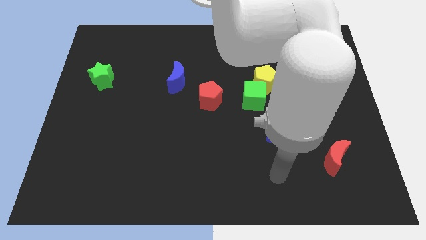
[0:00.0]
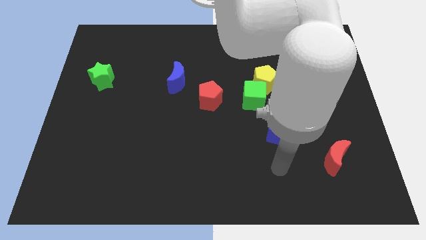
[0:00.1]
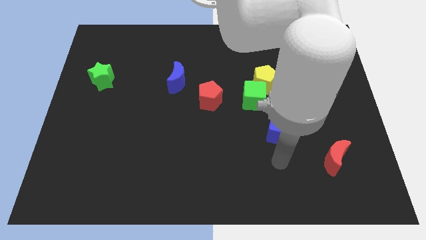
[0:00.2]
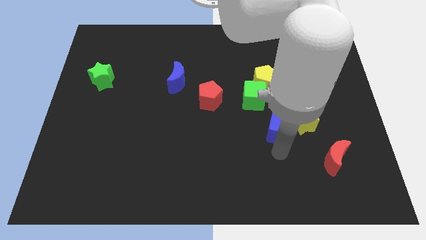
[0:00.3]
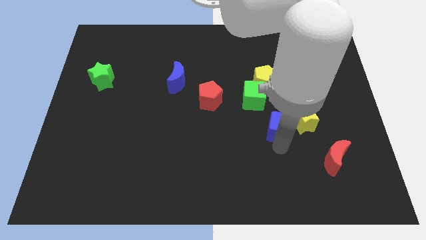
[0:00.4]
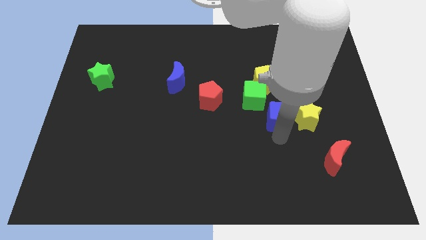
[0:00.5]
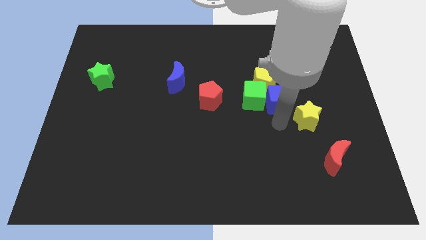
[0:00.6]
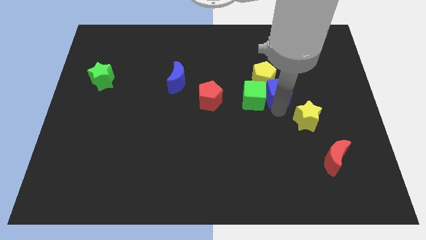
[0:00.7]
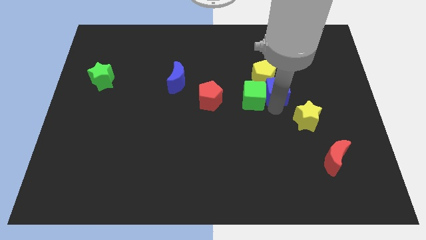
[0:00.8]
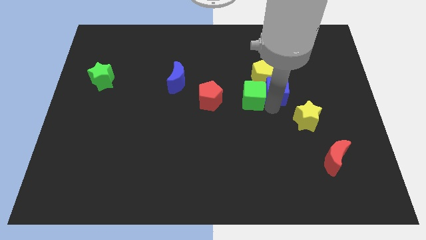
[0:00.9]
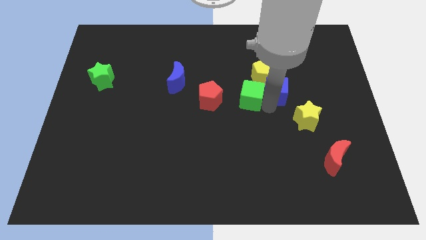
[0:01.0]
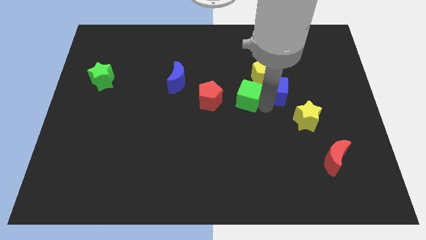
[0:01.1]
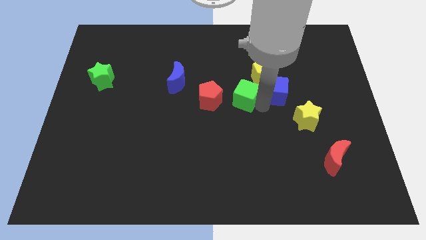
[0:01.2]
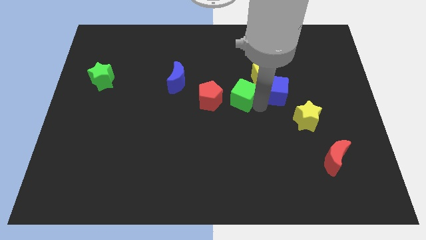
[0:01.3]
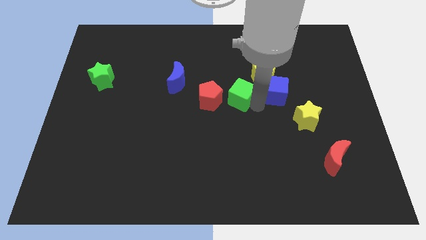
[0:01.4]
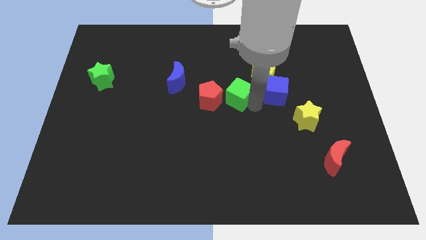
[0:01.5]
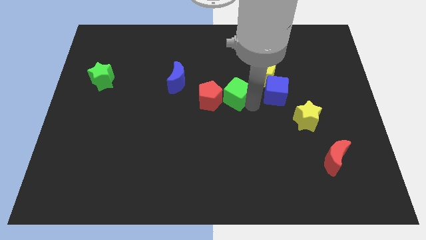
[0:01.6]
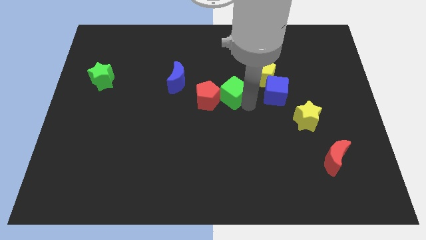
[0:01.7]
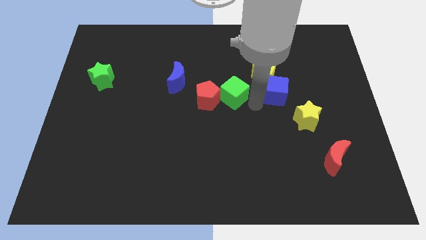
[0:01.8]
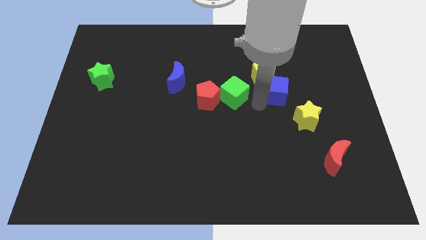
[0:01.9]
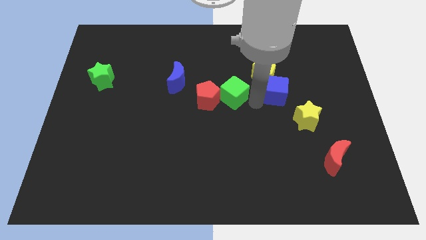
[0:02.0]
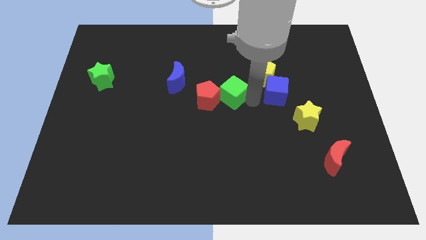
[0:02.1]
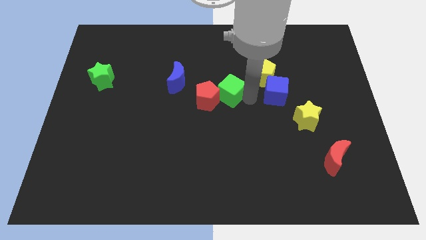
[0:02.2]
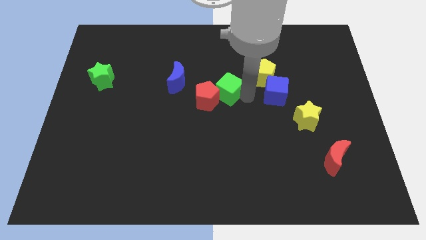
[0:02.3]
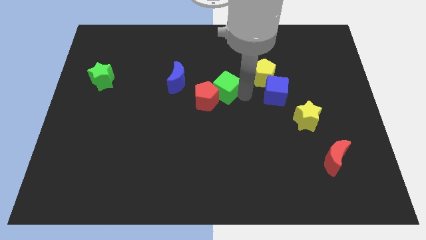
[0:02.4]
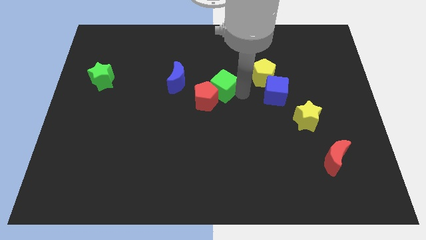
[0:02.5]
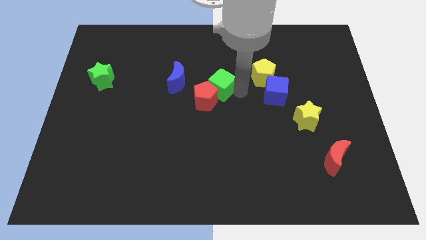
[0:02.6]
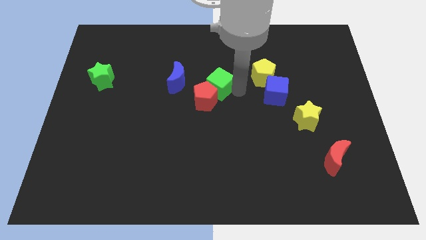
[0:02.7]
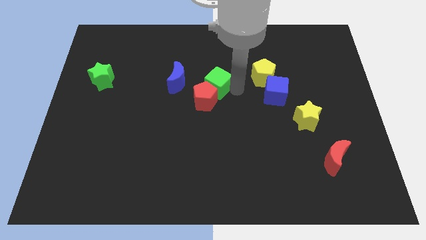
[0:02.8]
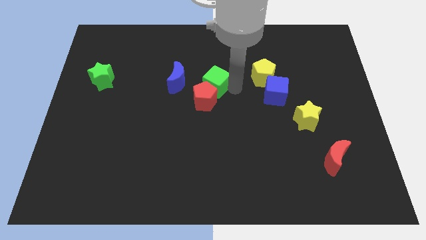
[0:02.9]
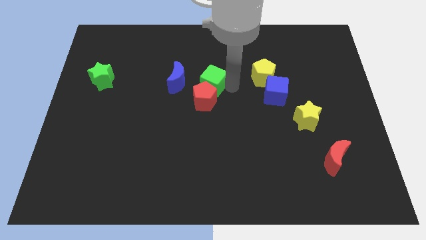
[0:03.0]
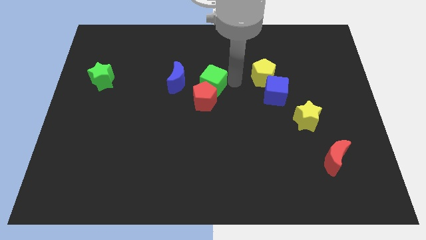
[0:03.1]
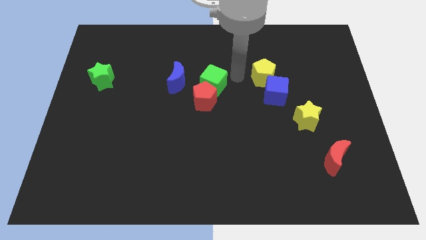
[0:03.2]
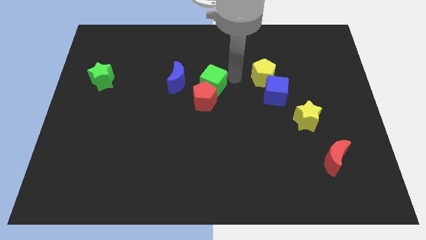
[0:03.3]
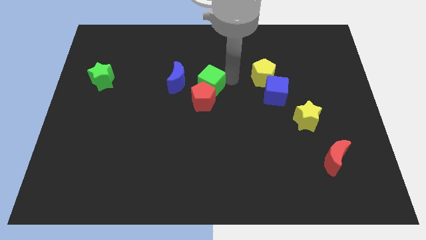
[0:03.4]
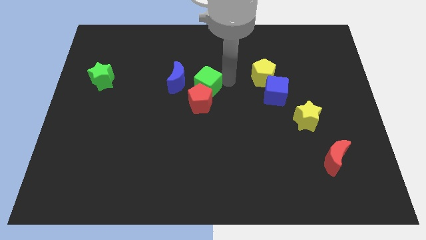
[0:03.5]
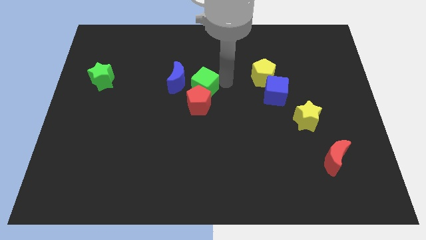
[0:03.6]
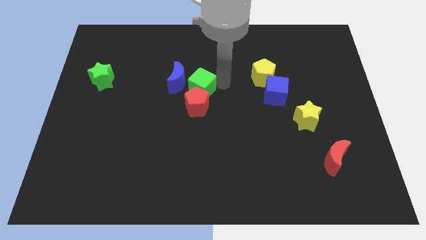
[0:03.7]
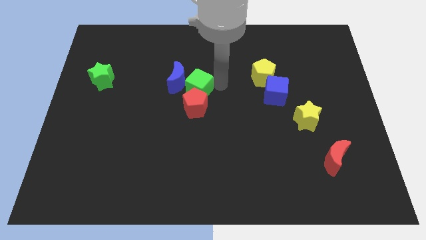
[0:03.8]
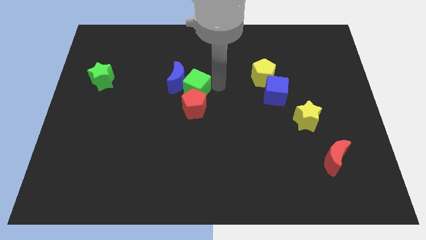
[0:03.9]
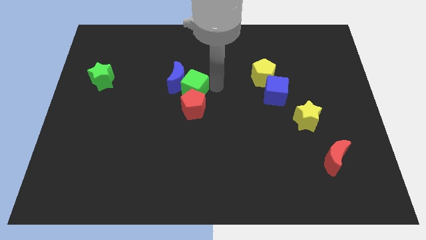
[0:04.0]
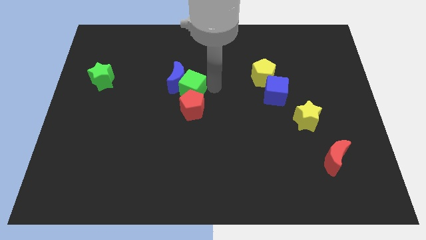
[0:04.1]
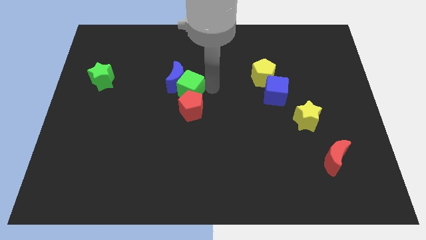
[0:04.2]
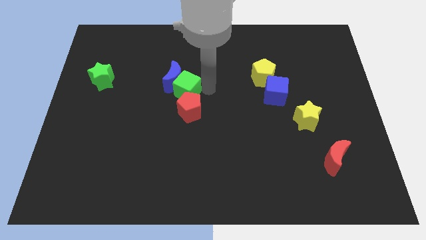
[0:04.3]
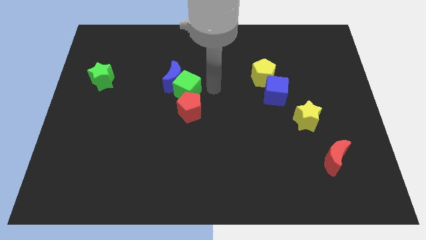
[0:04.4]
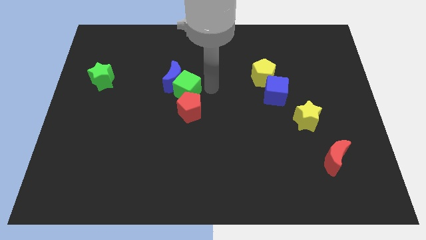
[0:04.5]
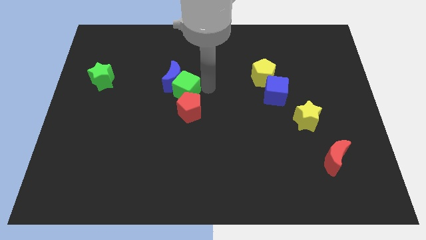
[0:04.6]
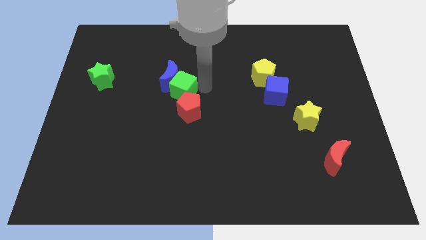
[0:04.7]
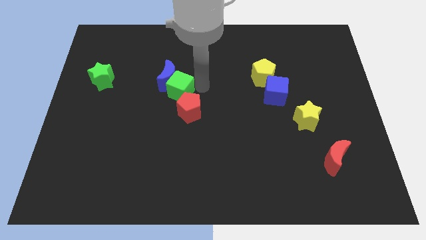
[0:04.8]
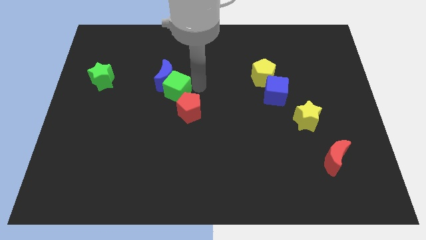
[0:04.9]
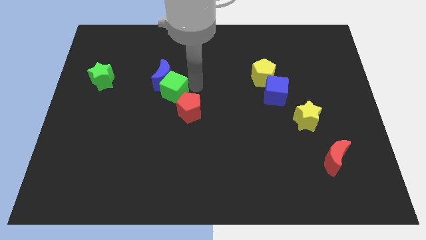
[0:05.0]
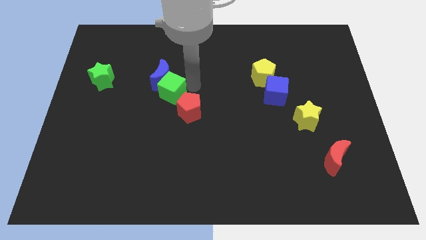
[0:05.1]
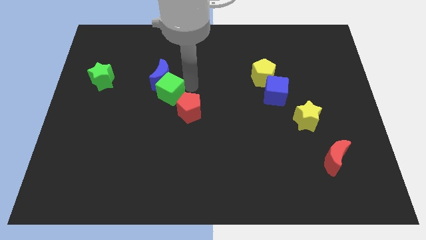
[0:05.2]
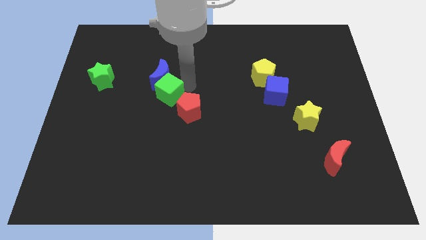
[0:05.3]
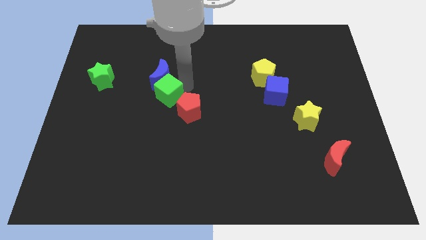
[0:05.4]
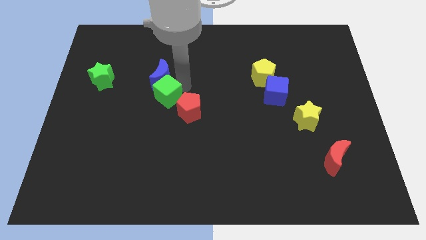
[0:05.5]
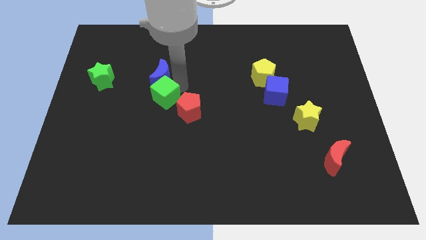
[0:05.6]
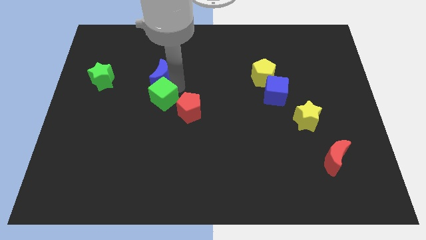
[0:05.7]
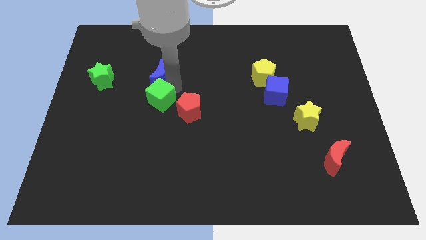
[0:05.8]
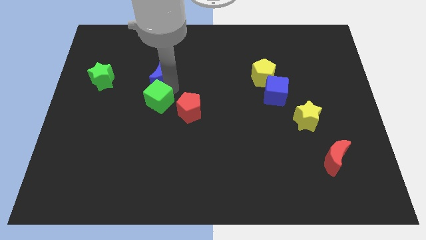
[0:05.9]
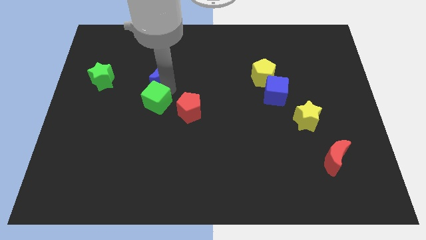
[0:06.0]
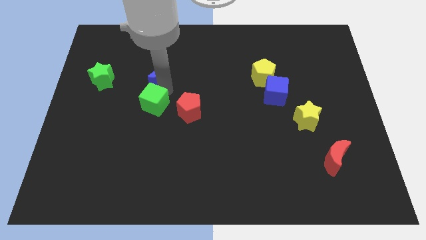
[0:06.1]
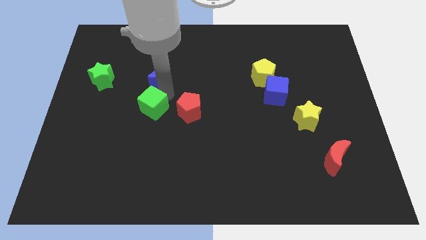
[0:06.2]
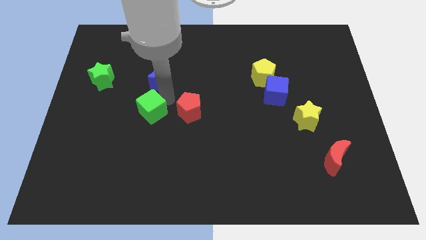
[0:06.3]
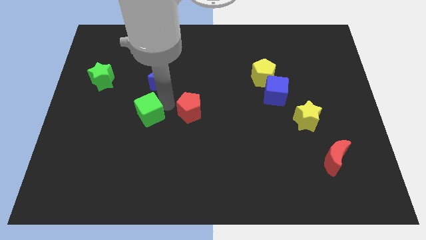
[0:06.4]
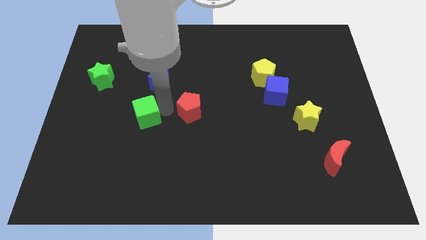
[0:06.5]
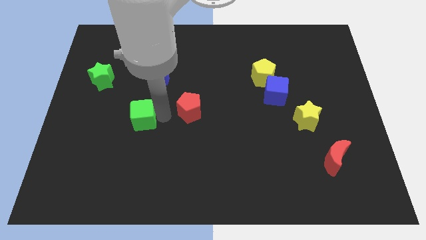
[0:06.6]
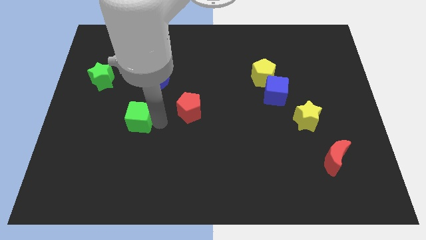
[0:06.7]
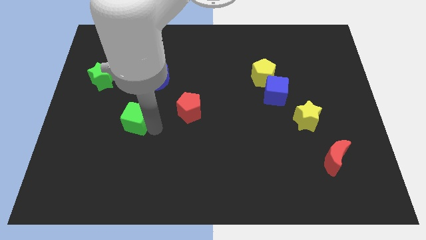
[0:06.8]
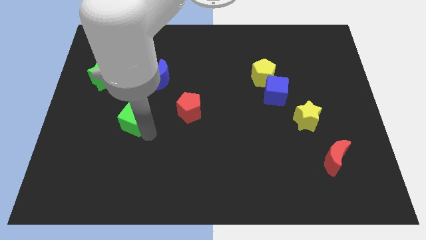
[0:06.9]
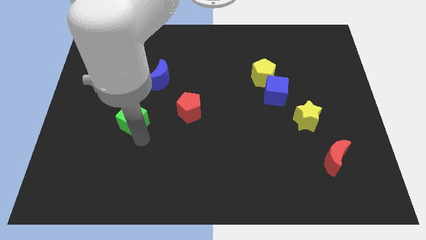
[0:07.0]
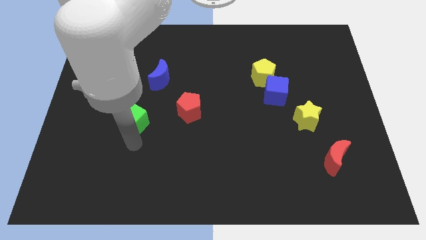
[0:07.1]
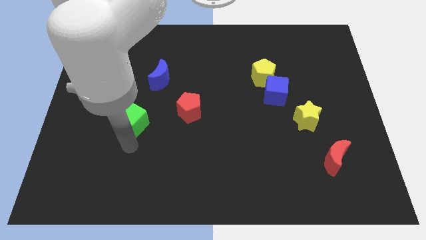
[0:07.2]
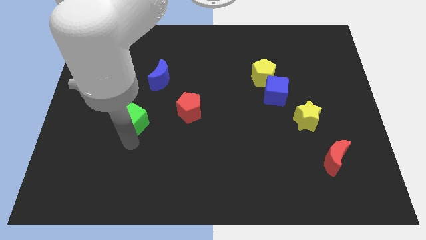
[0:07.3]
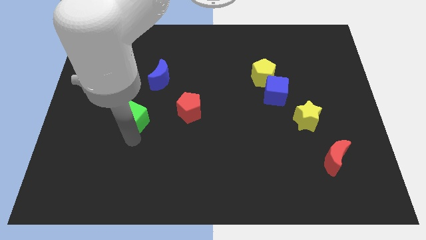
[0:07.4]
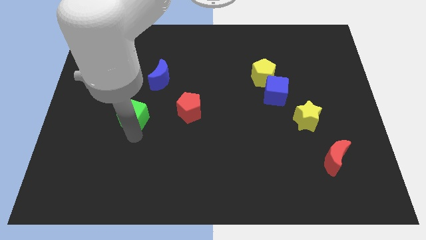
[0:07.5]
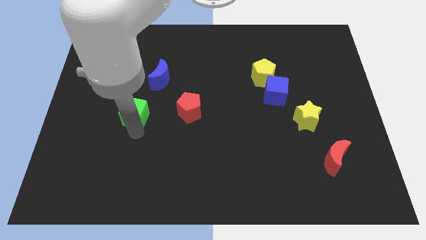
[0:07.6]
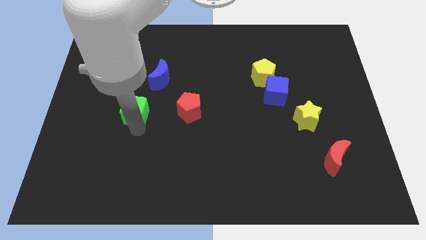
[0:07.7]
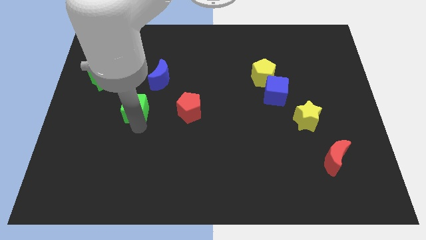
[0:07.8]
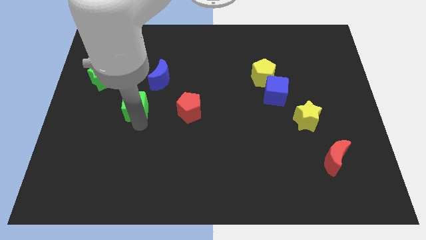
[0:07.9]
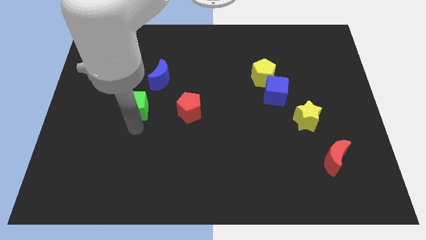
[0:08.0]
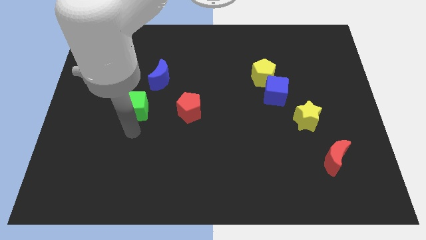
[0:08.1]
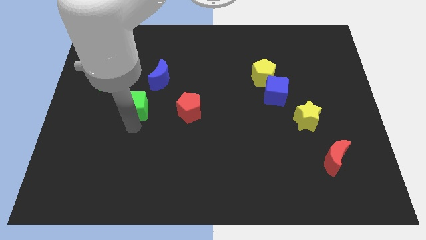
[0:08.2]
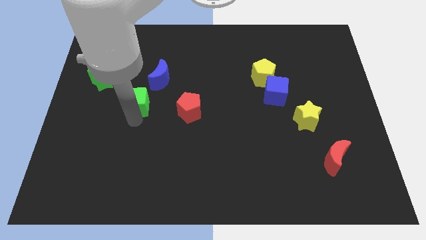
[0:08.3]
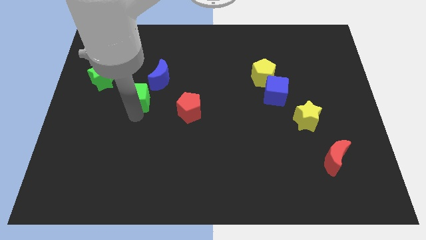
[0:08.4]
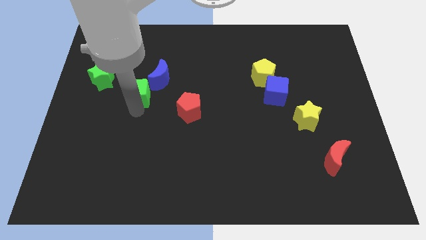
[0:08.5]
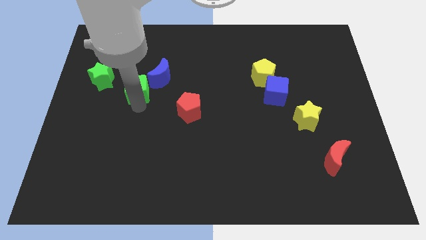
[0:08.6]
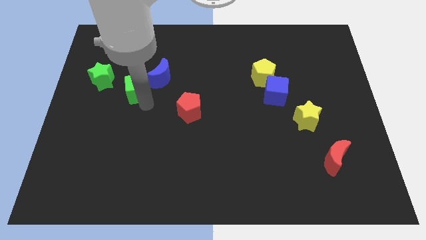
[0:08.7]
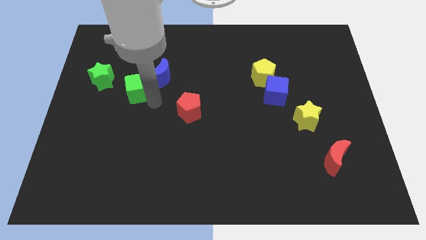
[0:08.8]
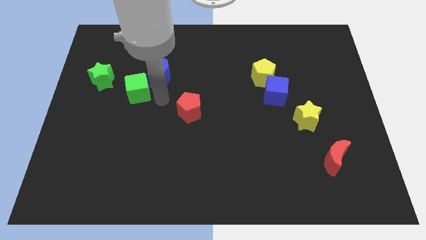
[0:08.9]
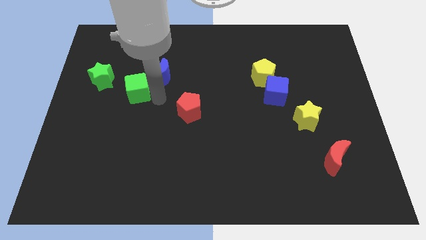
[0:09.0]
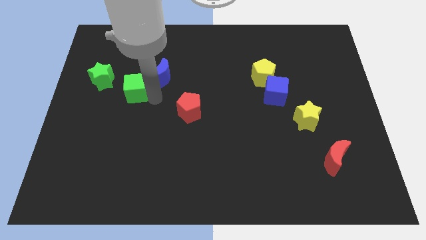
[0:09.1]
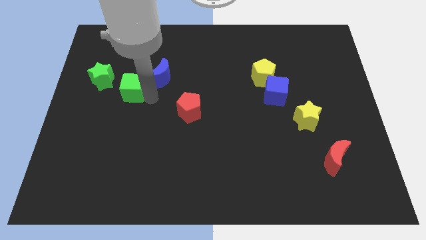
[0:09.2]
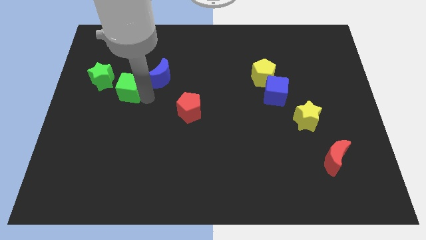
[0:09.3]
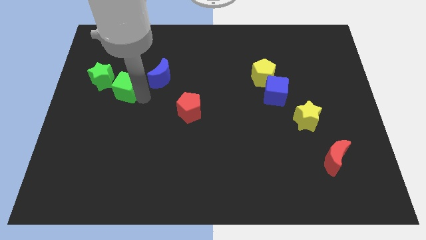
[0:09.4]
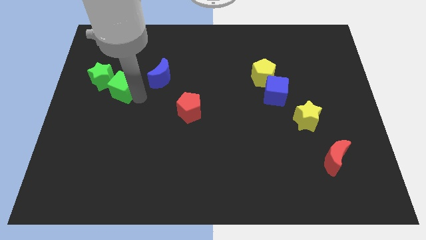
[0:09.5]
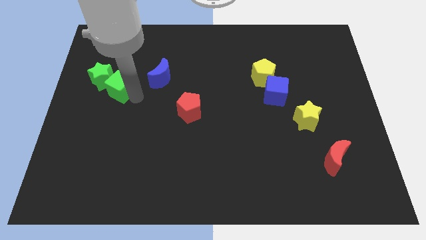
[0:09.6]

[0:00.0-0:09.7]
slide the green cube close to the green star
